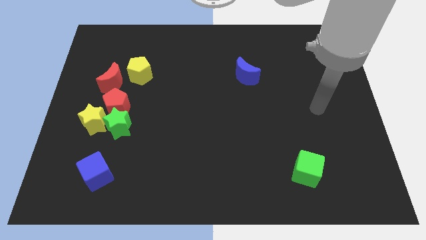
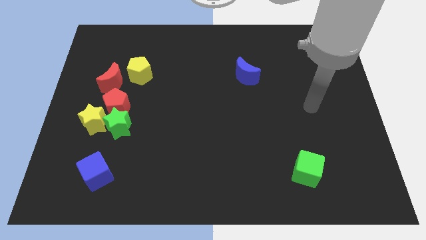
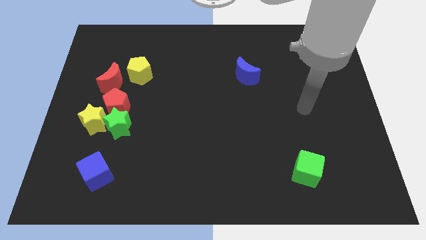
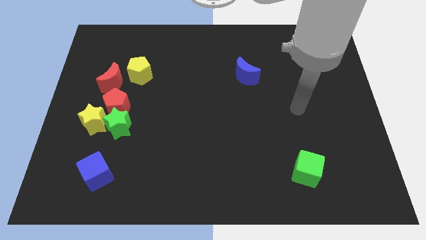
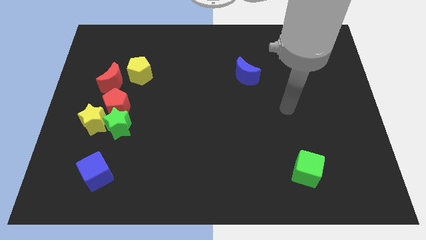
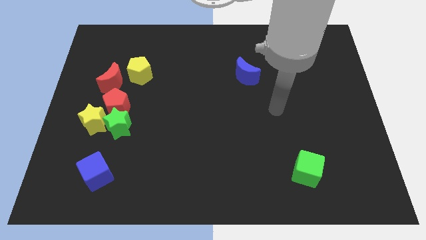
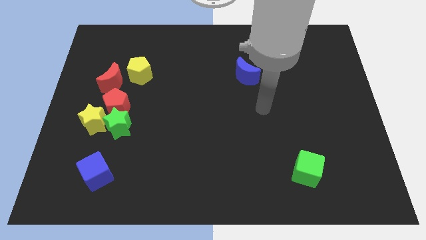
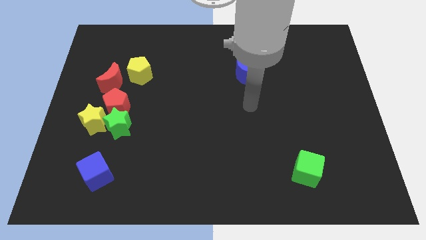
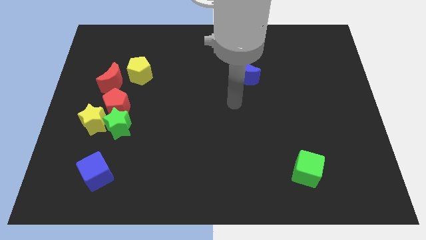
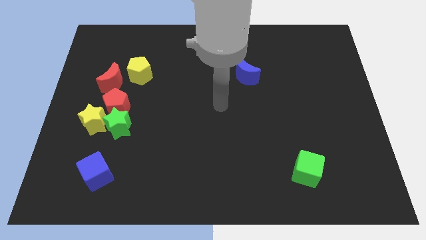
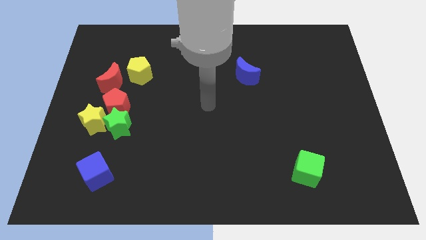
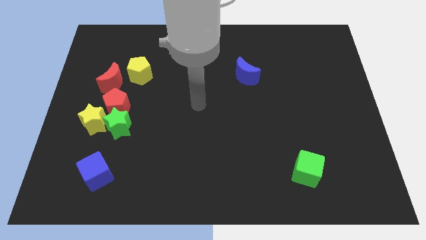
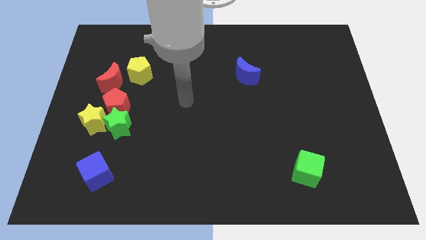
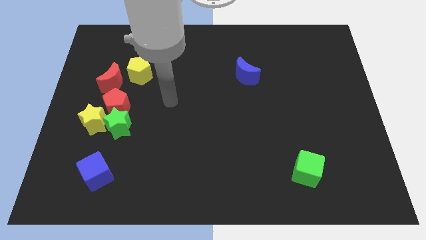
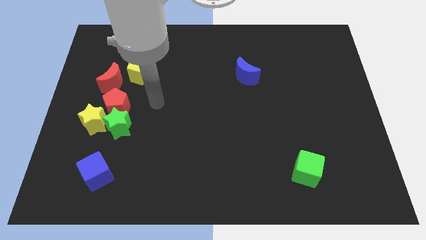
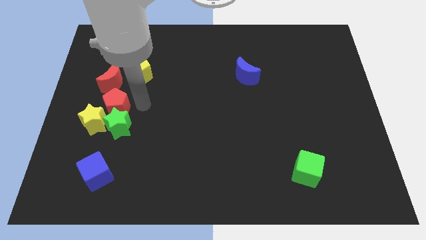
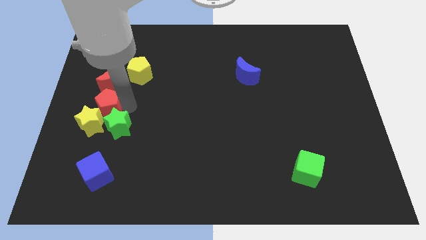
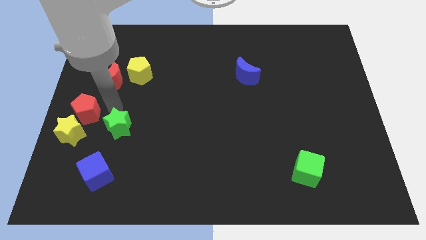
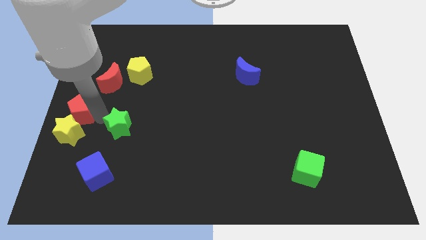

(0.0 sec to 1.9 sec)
pull the green star apart from the red pentagon and yellow star

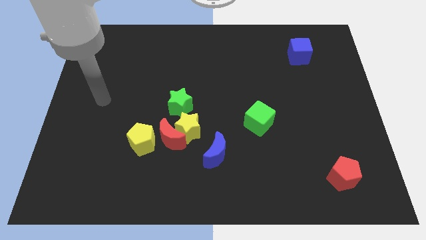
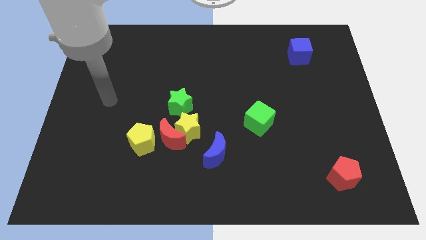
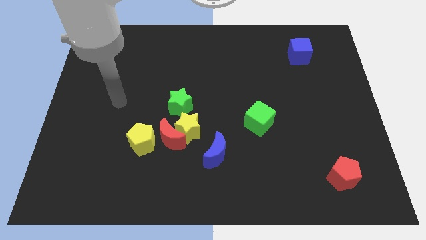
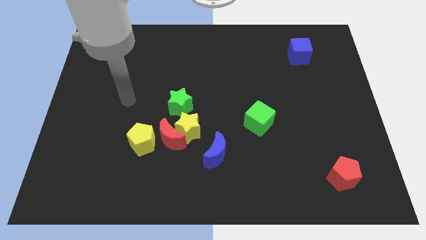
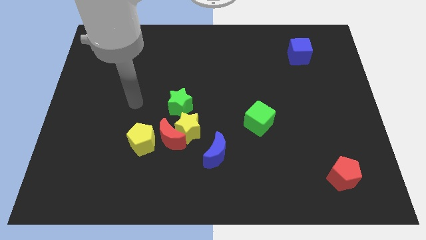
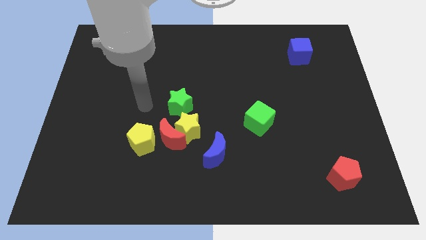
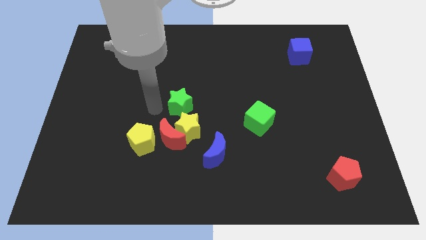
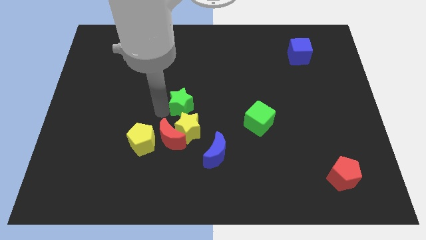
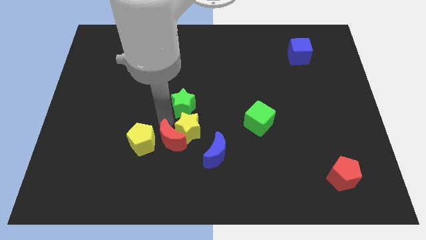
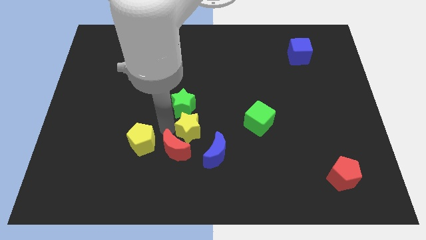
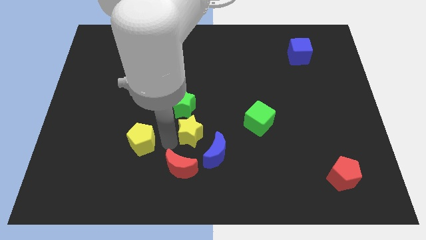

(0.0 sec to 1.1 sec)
pull the yellow pentagon apart from the red moon

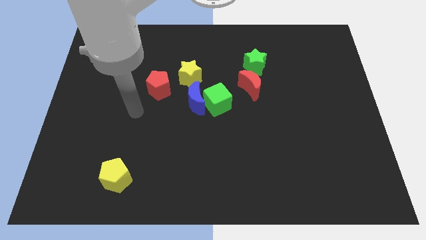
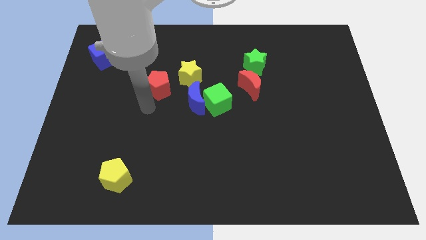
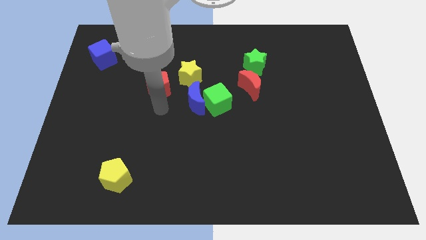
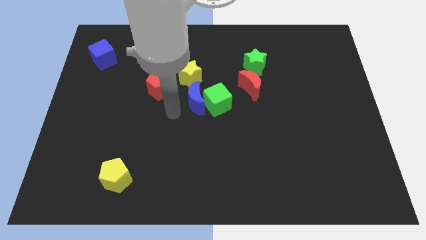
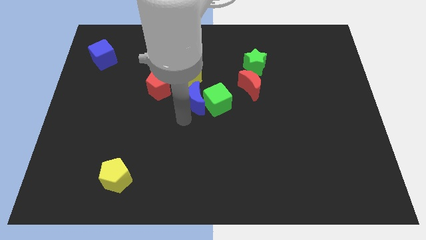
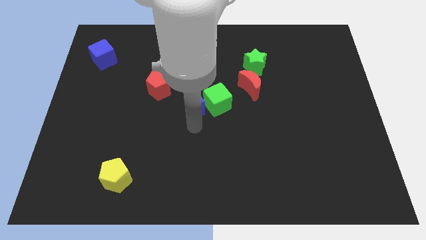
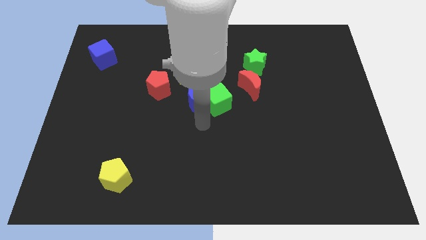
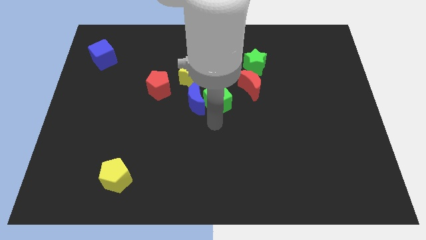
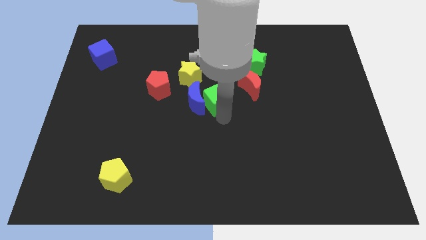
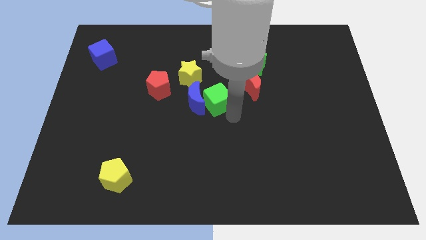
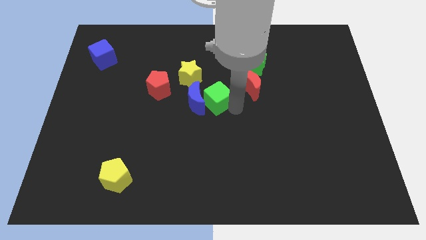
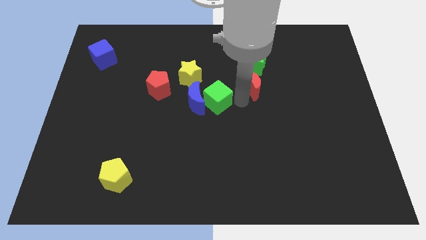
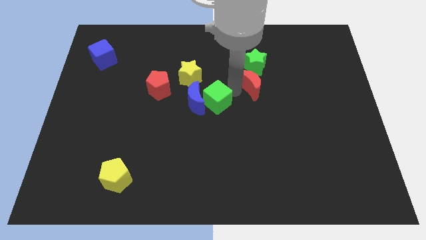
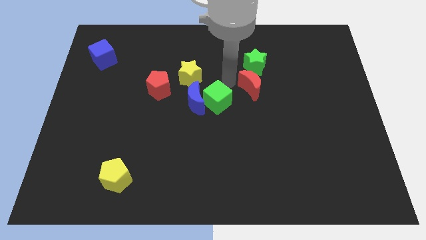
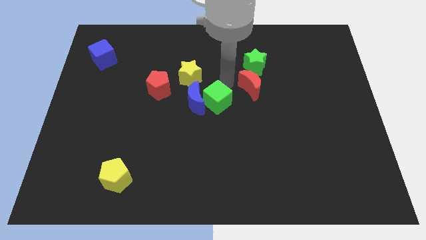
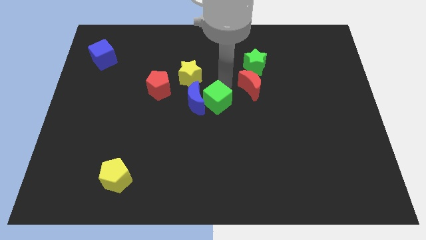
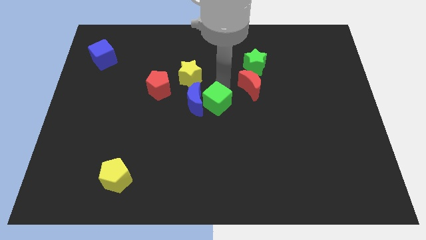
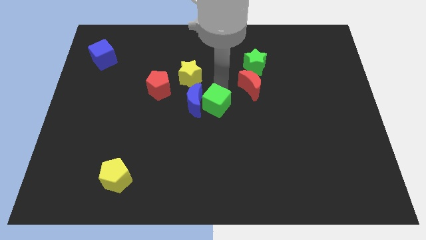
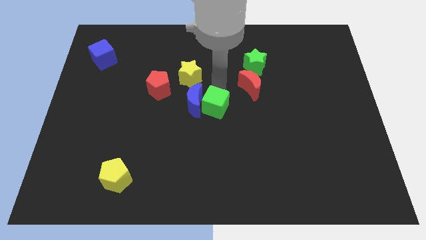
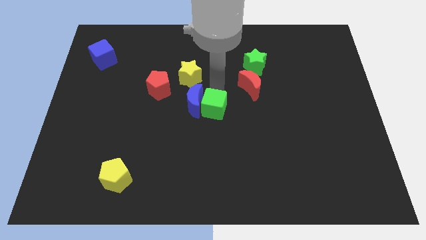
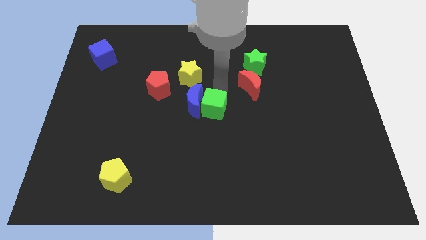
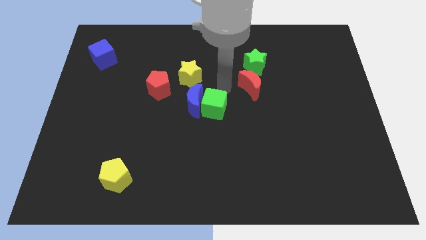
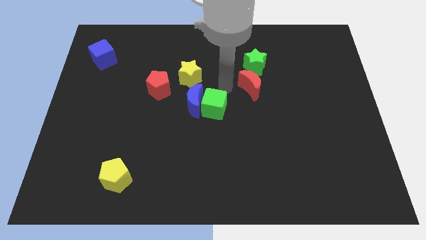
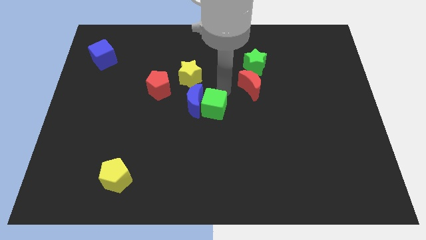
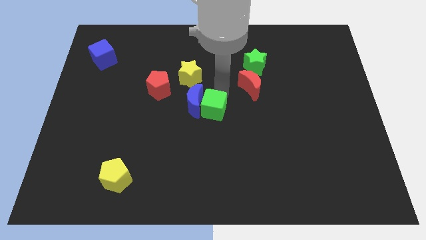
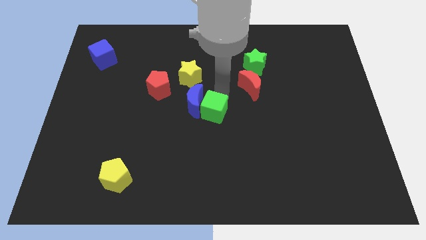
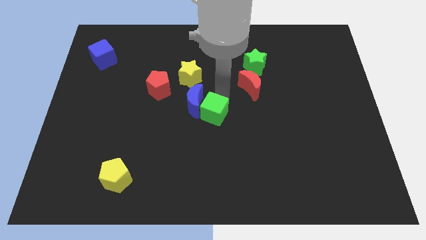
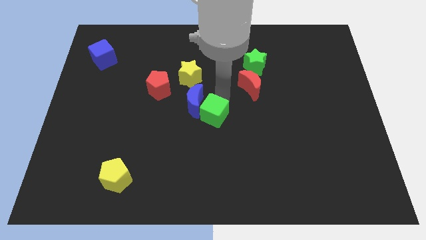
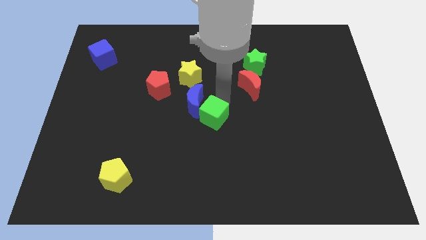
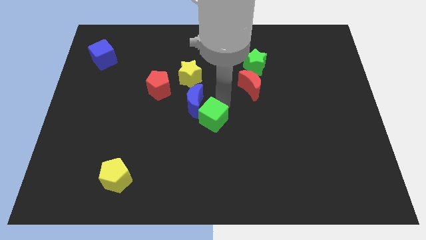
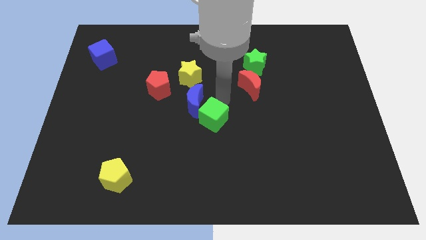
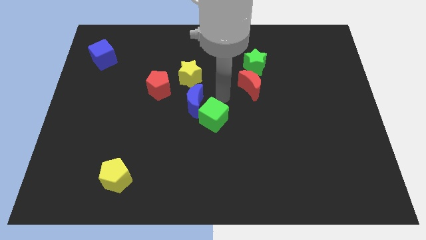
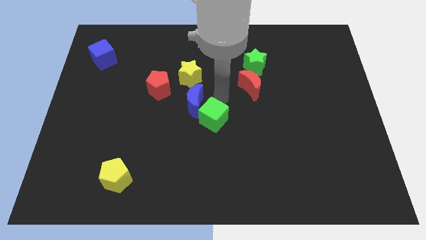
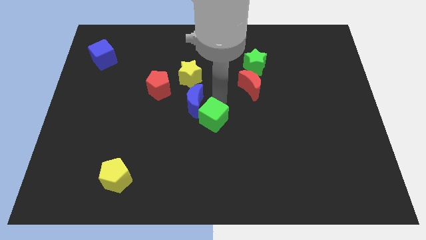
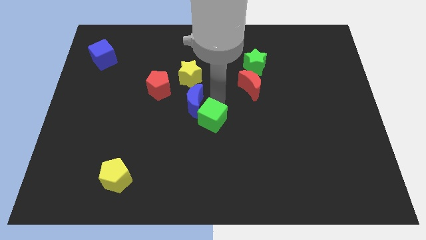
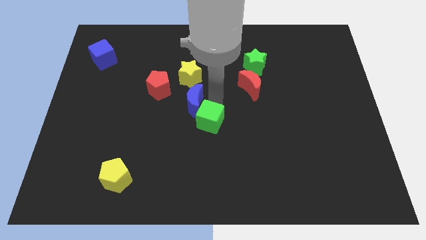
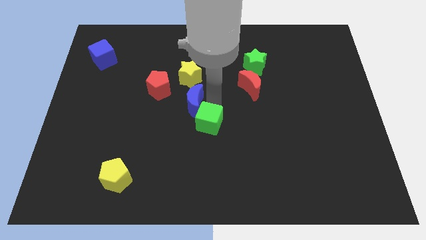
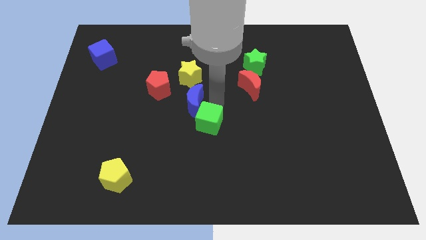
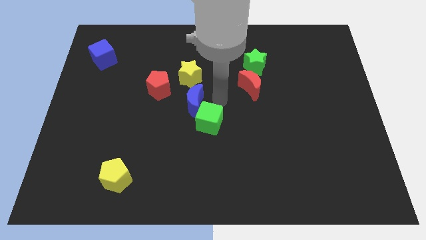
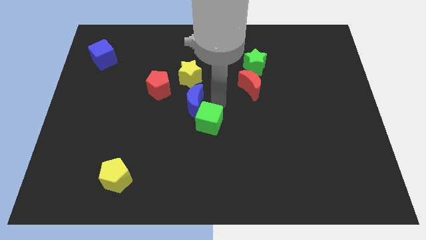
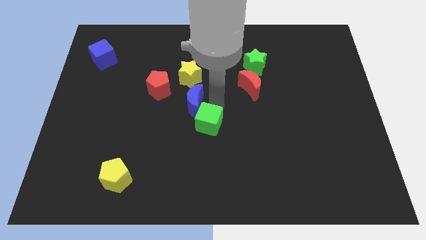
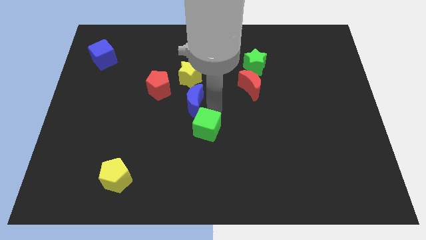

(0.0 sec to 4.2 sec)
move the green cube away from the blue moon and red moon

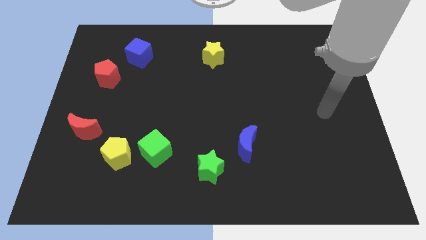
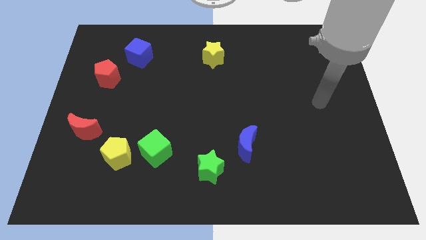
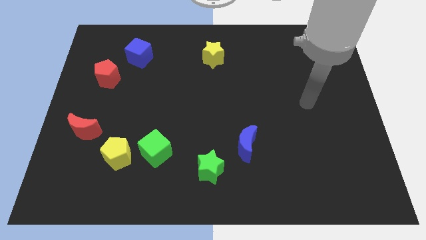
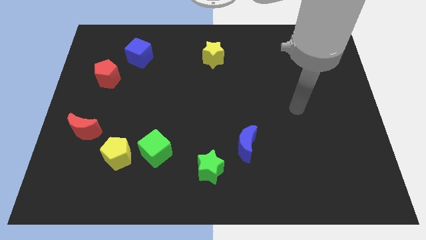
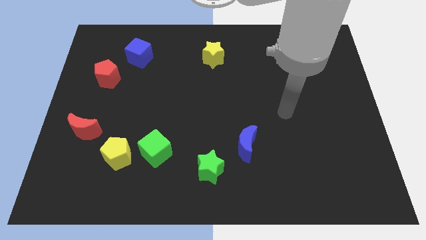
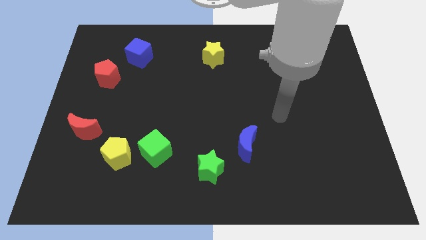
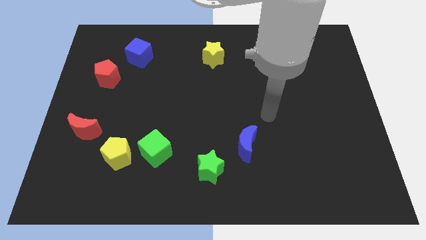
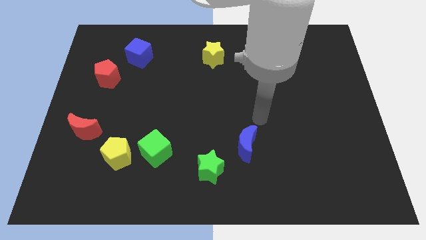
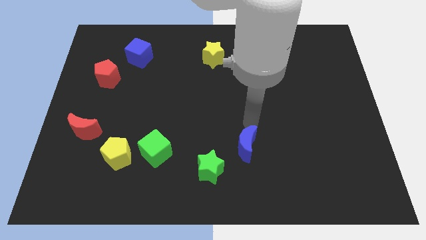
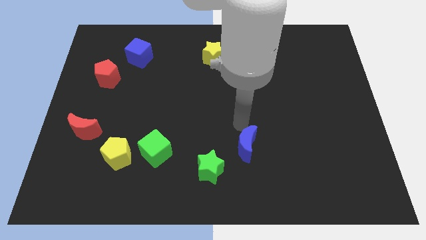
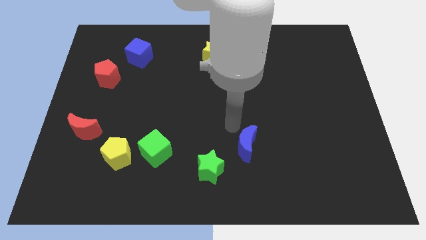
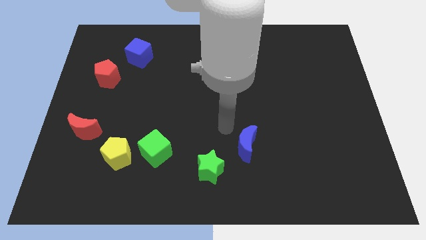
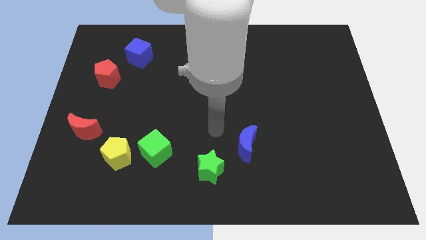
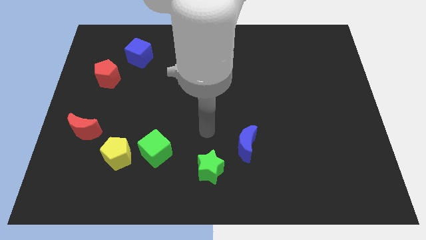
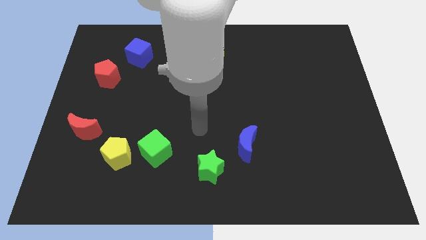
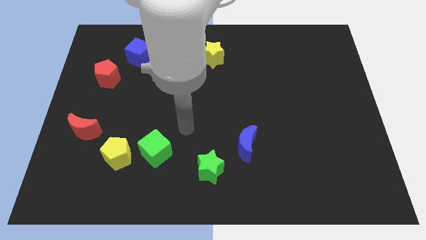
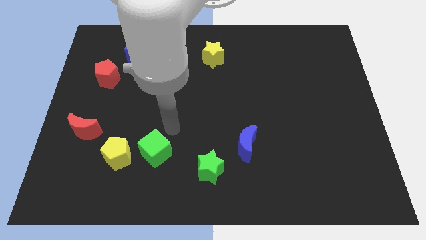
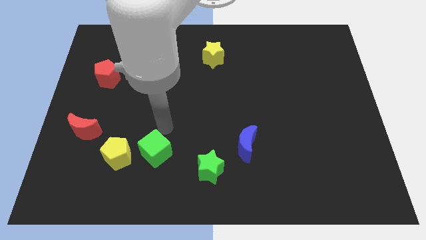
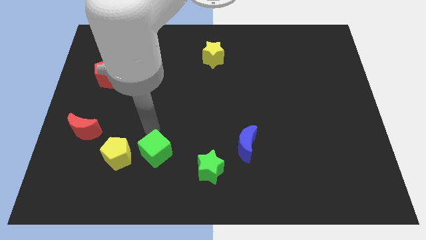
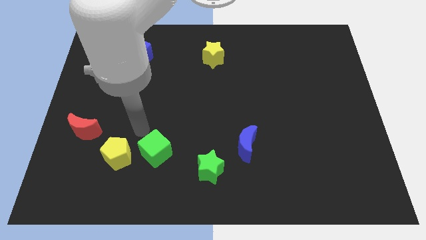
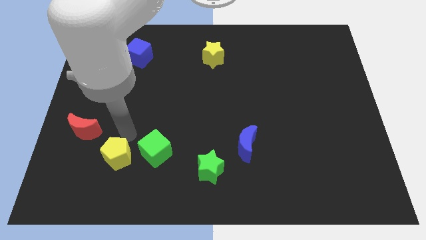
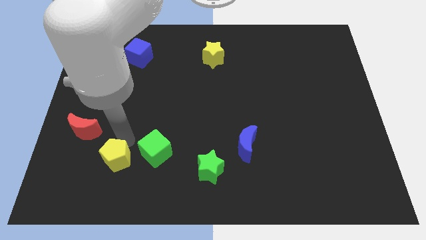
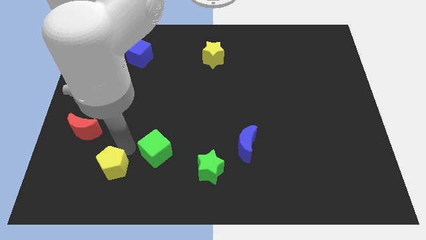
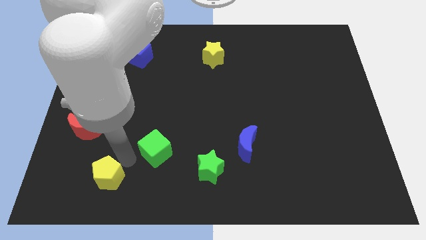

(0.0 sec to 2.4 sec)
move the green cube away from the yellow pentagon
